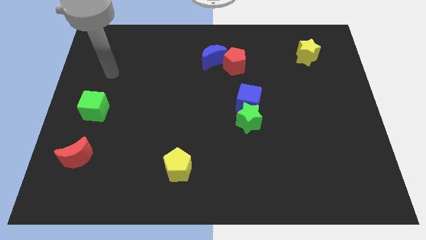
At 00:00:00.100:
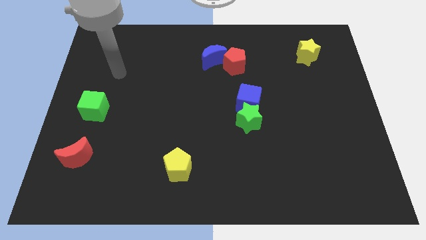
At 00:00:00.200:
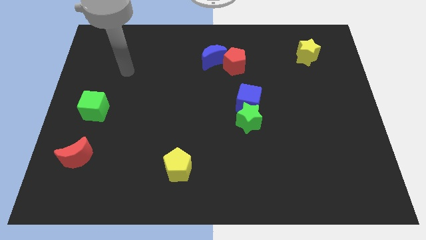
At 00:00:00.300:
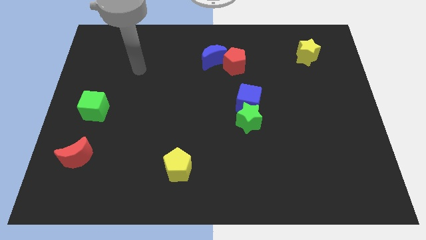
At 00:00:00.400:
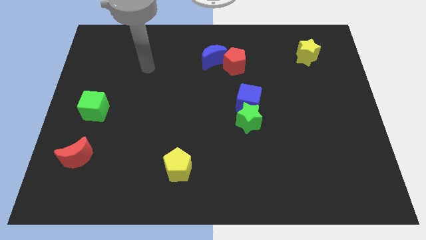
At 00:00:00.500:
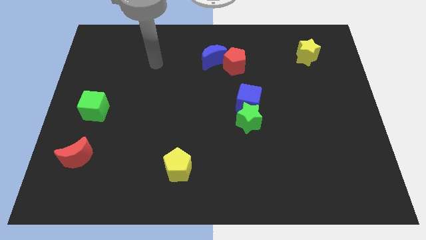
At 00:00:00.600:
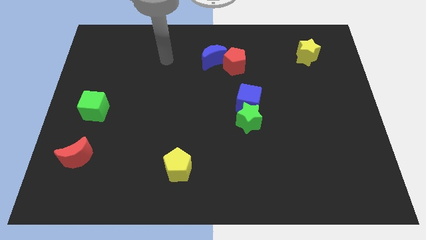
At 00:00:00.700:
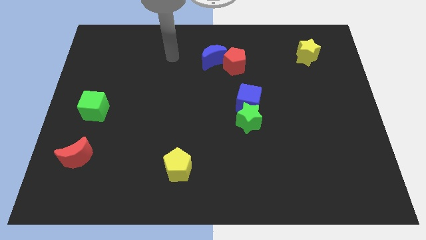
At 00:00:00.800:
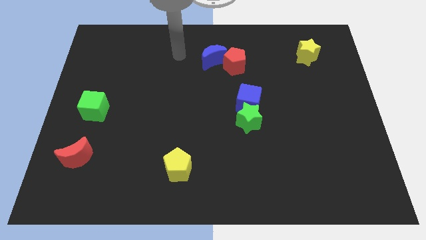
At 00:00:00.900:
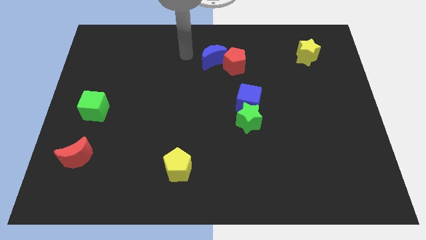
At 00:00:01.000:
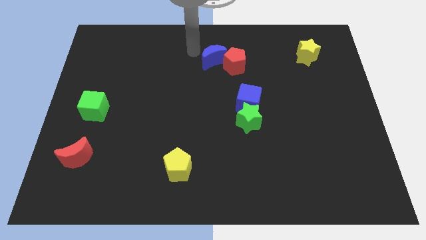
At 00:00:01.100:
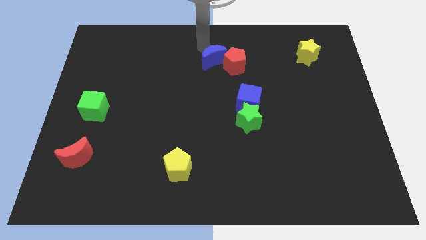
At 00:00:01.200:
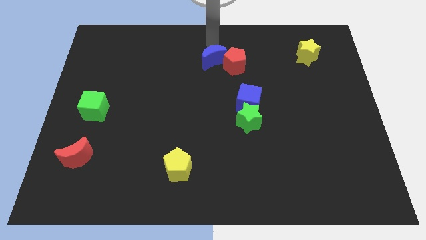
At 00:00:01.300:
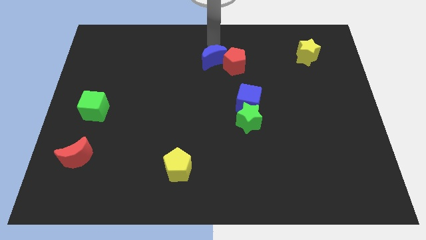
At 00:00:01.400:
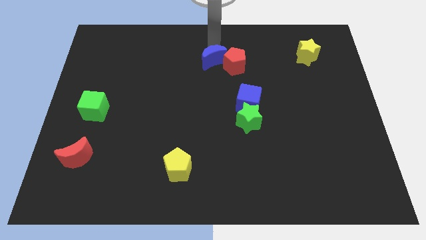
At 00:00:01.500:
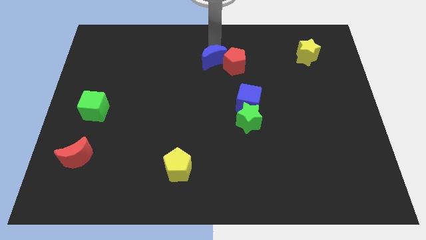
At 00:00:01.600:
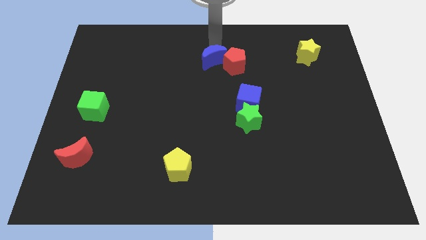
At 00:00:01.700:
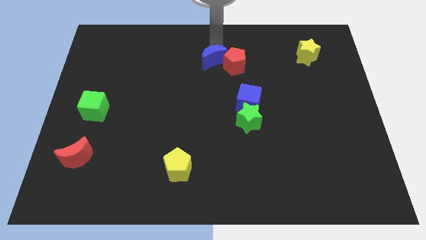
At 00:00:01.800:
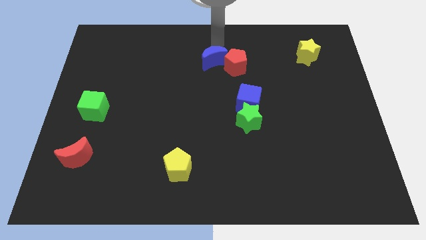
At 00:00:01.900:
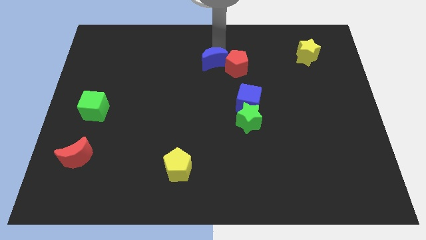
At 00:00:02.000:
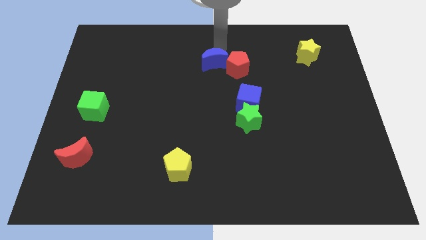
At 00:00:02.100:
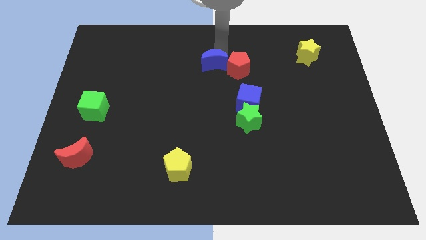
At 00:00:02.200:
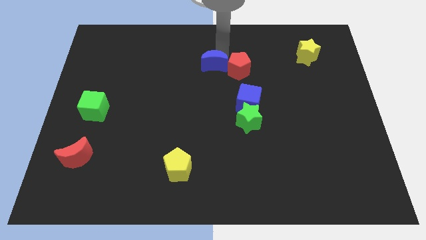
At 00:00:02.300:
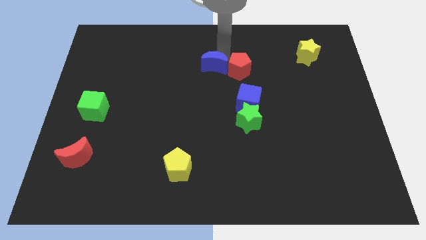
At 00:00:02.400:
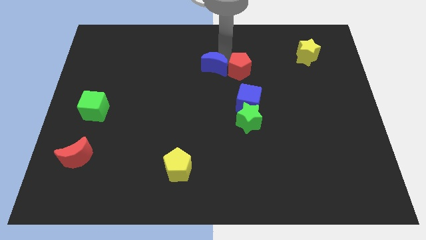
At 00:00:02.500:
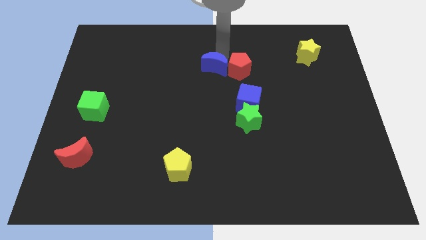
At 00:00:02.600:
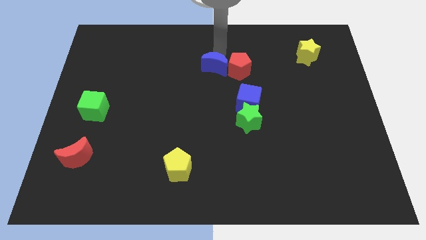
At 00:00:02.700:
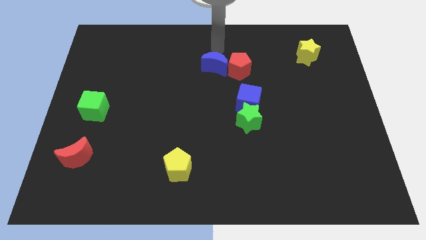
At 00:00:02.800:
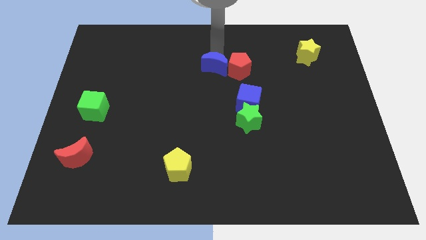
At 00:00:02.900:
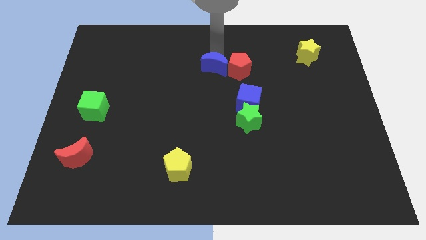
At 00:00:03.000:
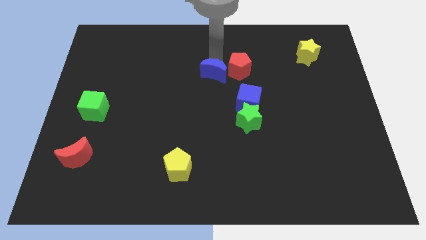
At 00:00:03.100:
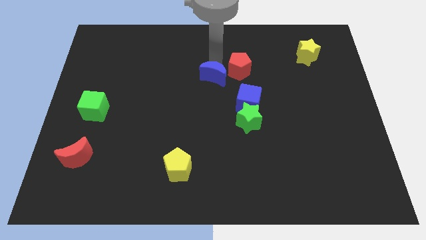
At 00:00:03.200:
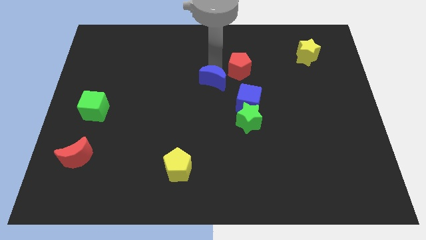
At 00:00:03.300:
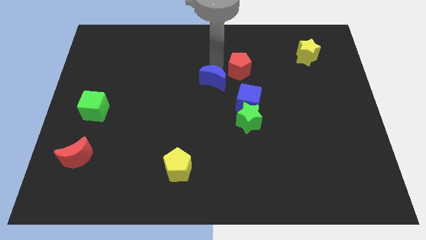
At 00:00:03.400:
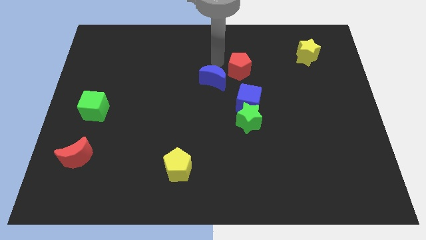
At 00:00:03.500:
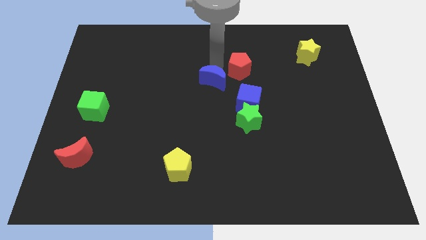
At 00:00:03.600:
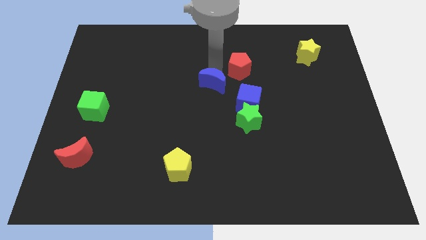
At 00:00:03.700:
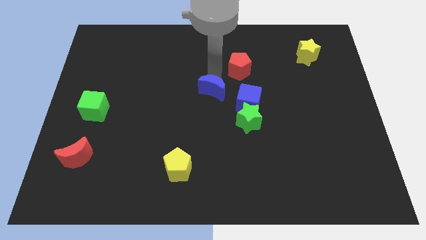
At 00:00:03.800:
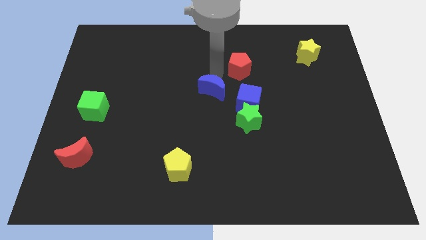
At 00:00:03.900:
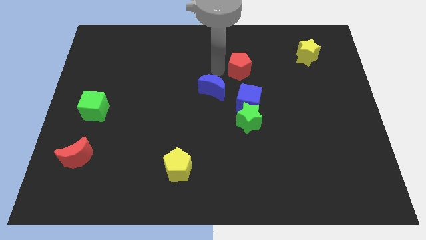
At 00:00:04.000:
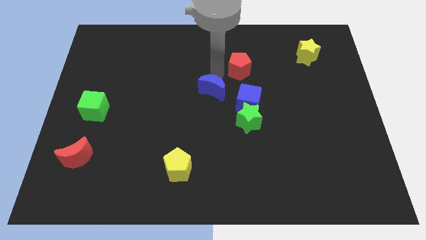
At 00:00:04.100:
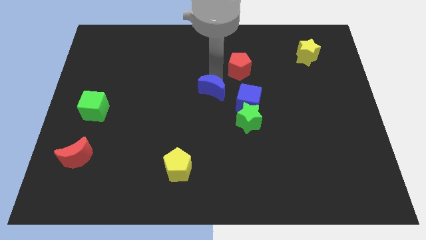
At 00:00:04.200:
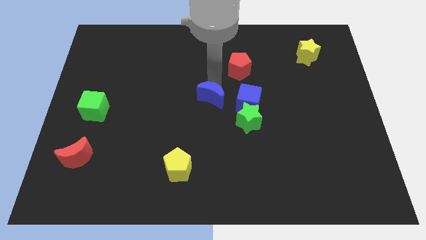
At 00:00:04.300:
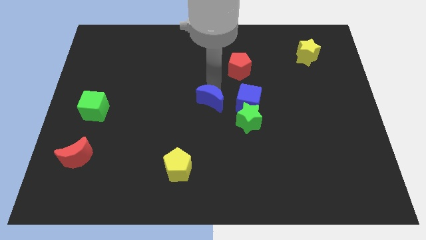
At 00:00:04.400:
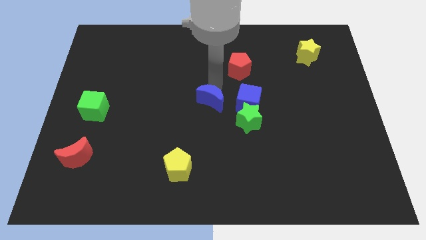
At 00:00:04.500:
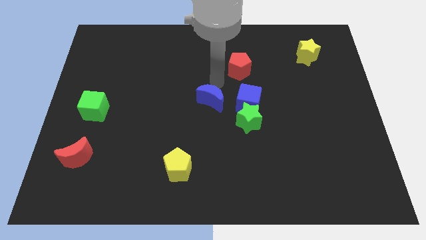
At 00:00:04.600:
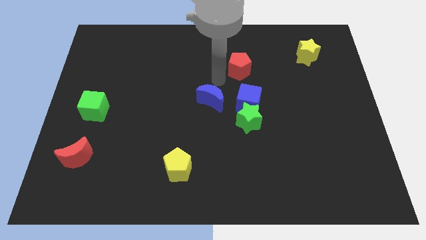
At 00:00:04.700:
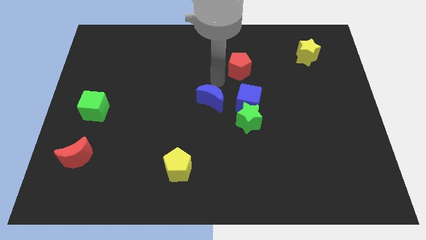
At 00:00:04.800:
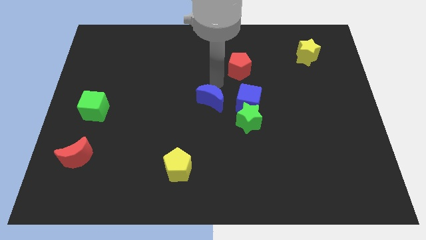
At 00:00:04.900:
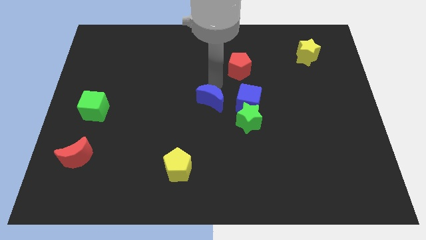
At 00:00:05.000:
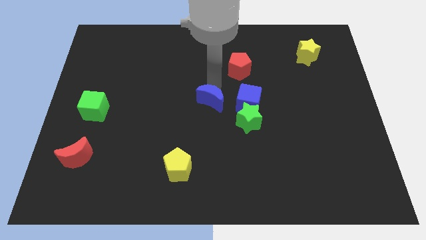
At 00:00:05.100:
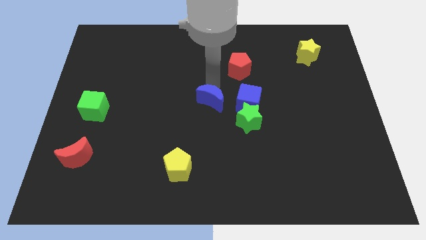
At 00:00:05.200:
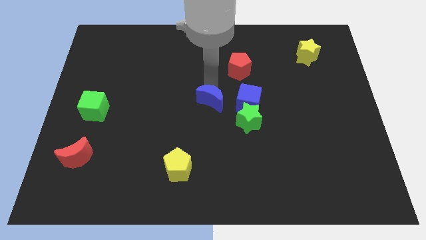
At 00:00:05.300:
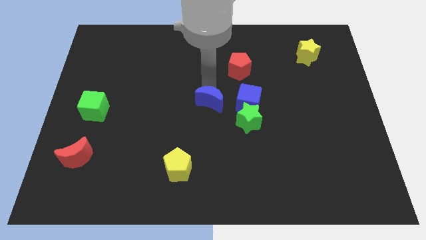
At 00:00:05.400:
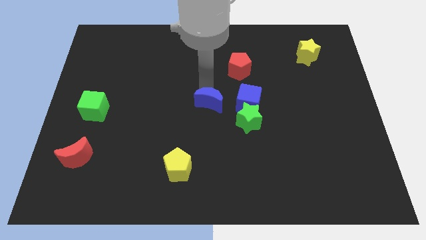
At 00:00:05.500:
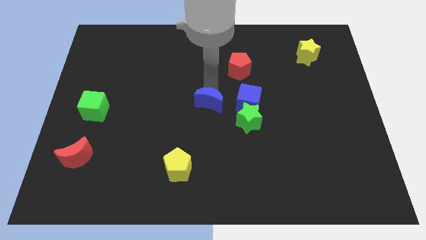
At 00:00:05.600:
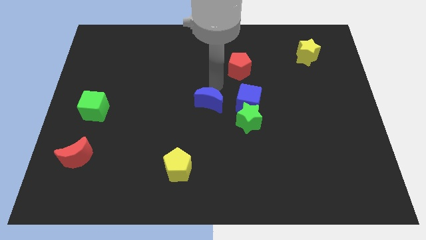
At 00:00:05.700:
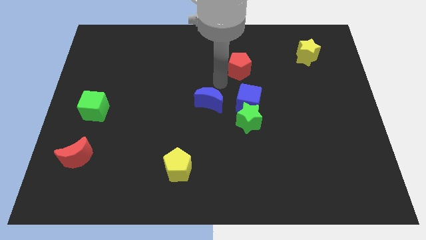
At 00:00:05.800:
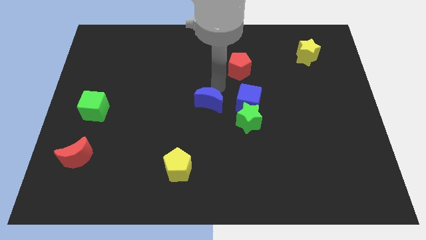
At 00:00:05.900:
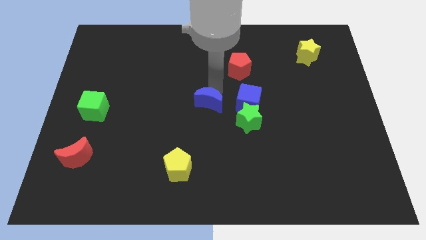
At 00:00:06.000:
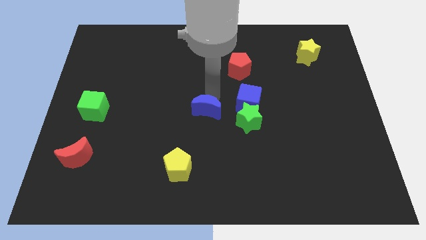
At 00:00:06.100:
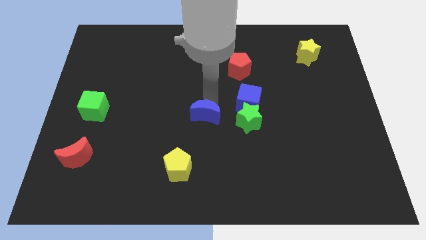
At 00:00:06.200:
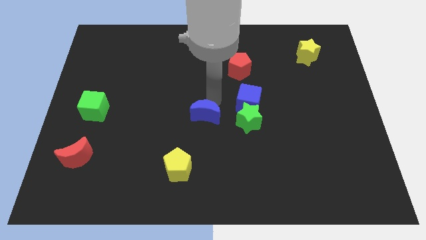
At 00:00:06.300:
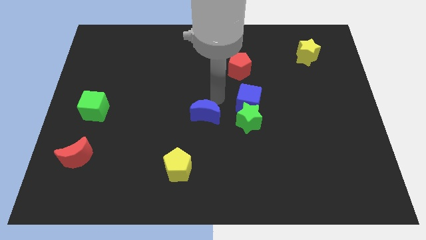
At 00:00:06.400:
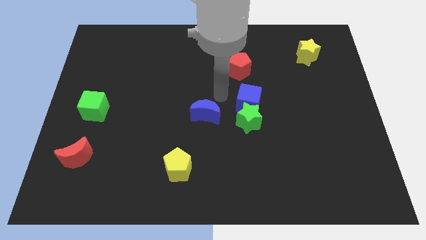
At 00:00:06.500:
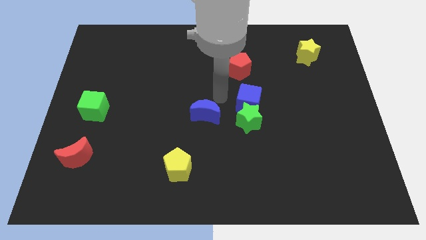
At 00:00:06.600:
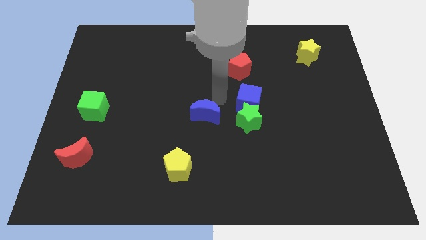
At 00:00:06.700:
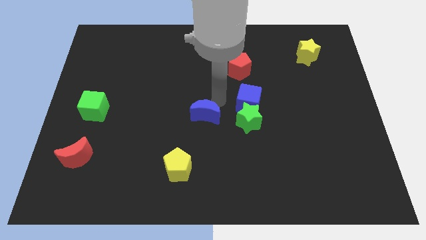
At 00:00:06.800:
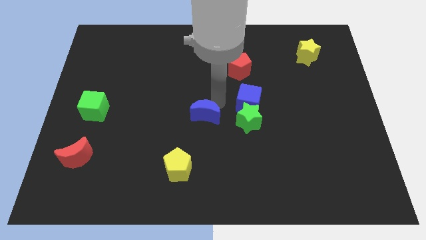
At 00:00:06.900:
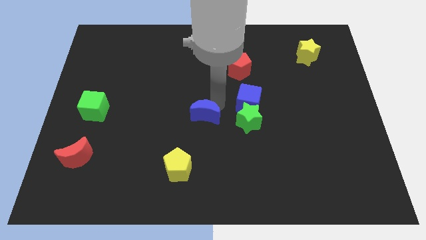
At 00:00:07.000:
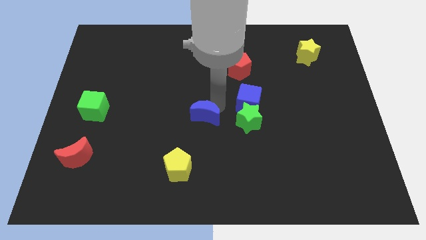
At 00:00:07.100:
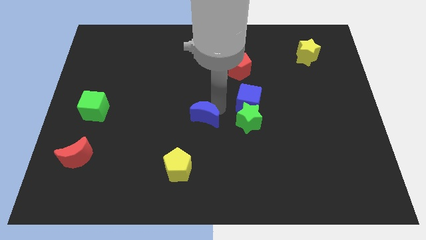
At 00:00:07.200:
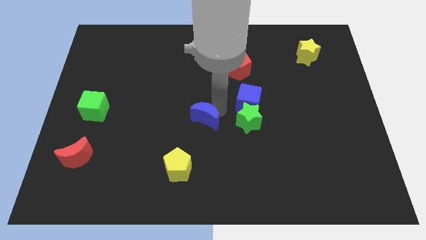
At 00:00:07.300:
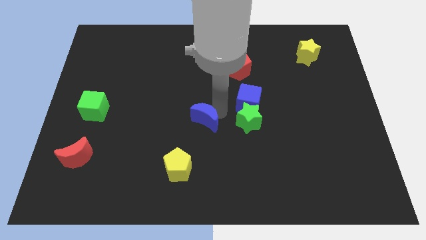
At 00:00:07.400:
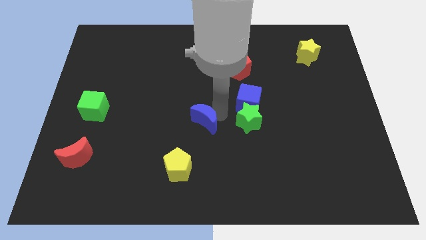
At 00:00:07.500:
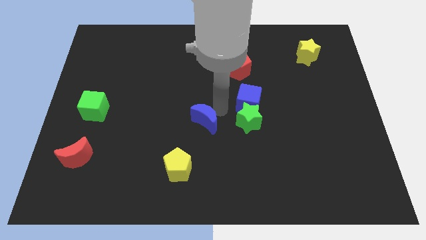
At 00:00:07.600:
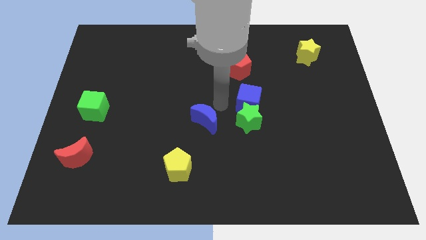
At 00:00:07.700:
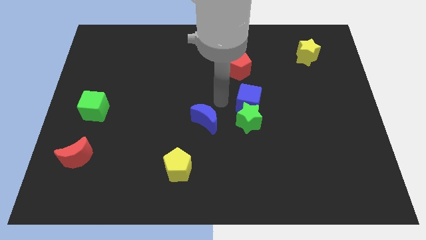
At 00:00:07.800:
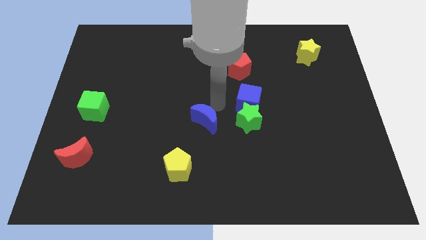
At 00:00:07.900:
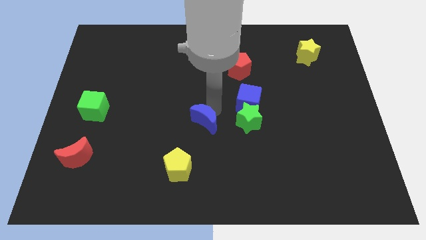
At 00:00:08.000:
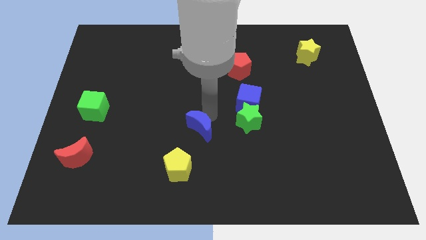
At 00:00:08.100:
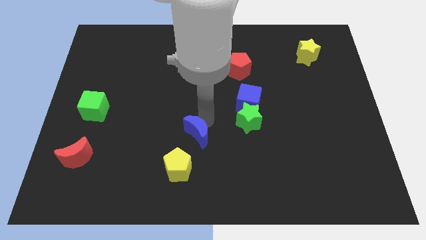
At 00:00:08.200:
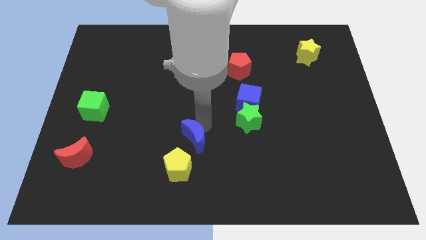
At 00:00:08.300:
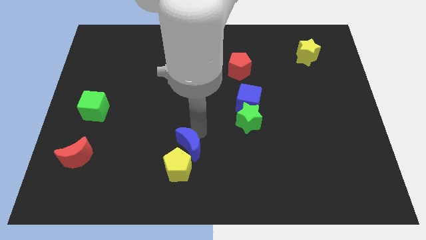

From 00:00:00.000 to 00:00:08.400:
slide the blue moon towards the yellow pentagon
